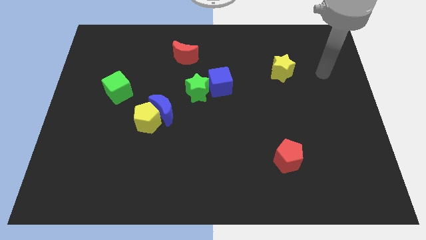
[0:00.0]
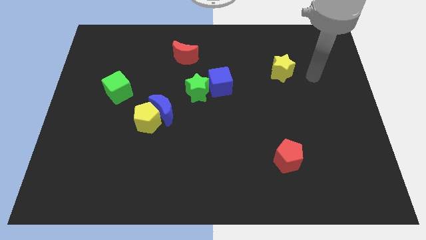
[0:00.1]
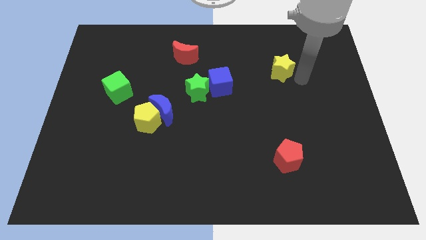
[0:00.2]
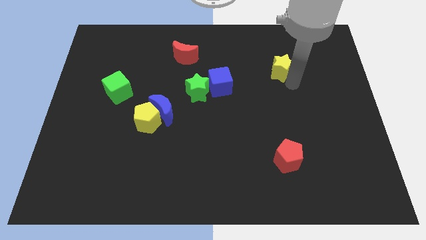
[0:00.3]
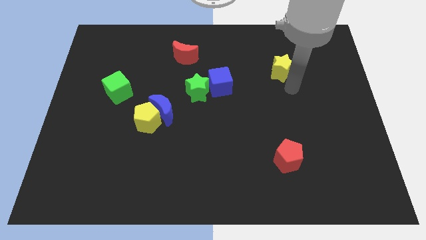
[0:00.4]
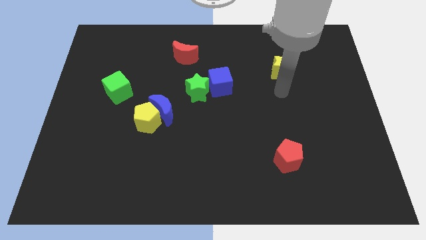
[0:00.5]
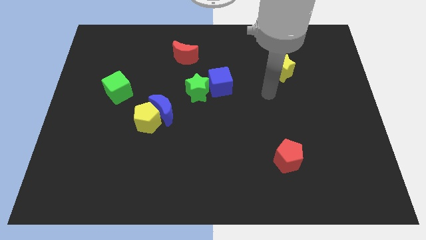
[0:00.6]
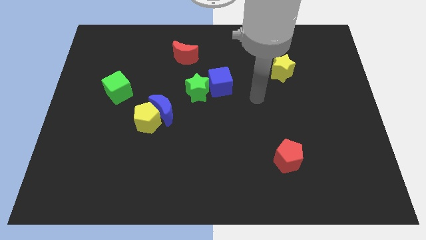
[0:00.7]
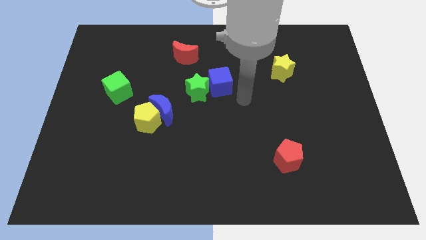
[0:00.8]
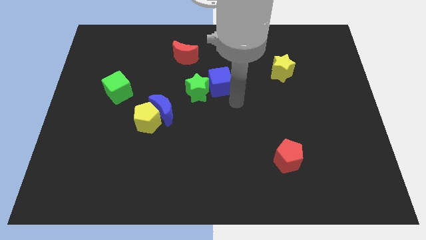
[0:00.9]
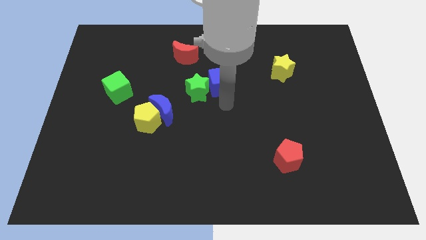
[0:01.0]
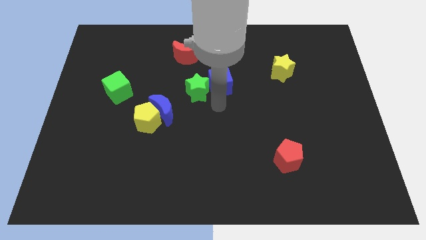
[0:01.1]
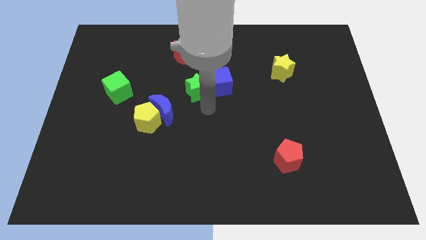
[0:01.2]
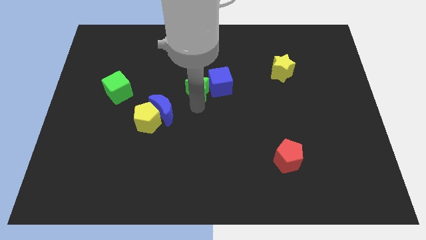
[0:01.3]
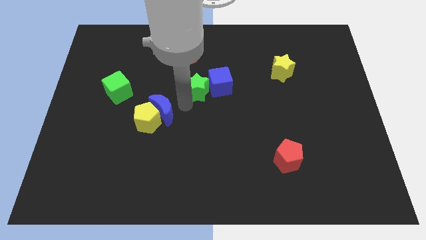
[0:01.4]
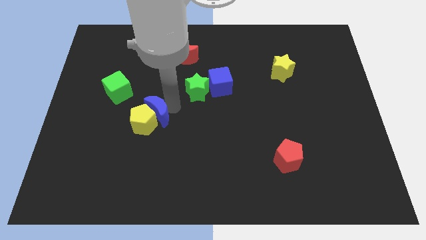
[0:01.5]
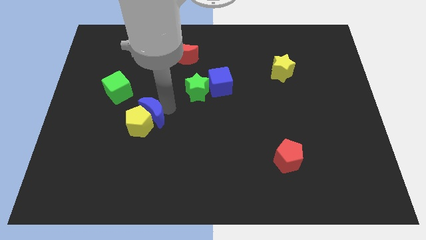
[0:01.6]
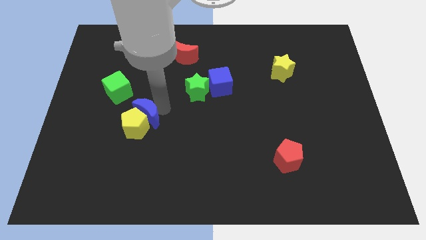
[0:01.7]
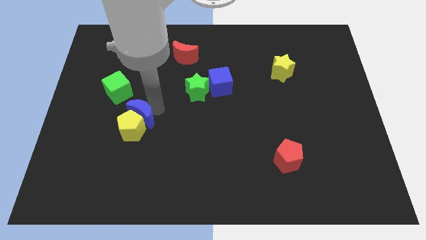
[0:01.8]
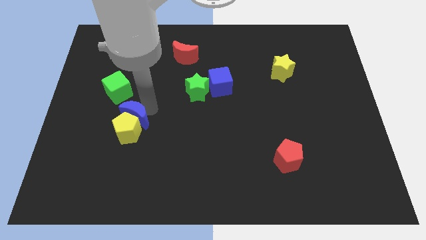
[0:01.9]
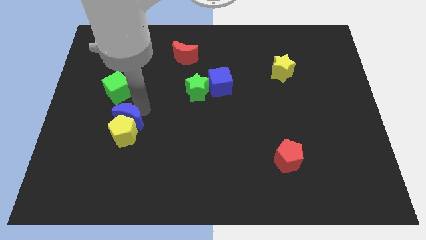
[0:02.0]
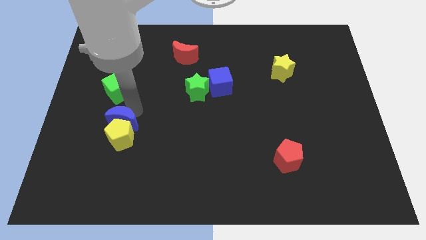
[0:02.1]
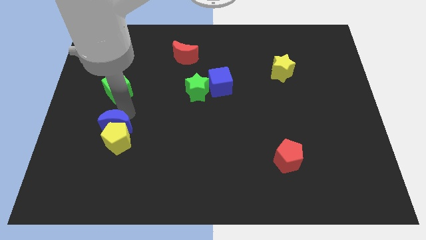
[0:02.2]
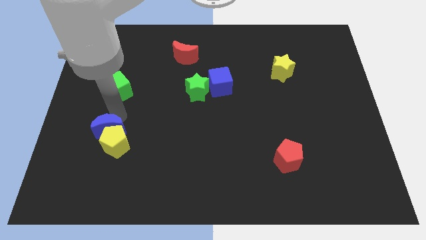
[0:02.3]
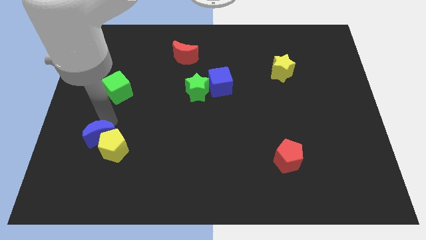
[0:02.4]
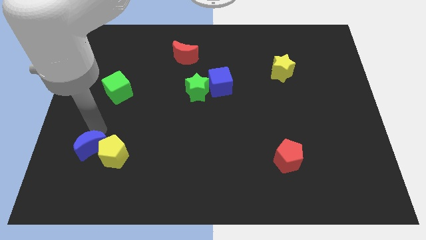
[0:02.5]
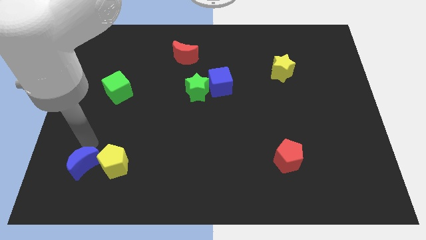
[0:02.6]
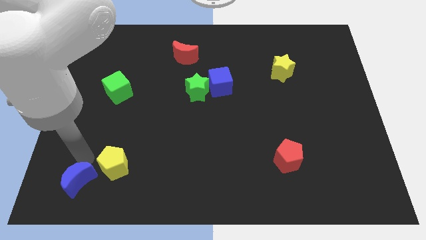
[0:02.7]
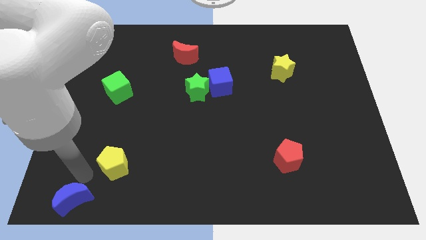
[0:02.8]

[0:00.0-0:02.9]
pull the yellow pentagon apart from the blue moon

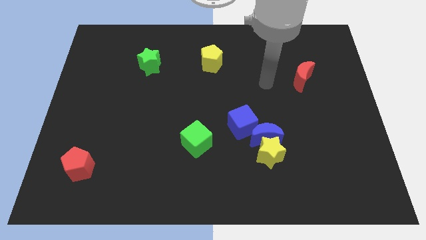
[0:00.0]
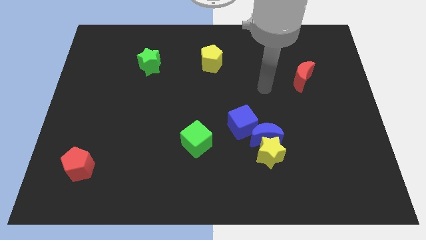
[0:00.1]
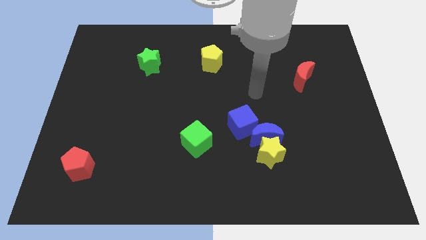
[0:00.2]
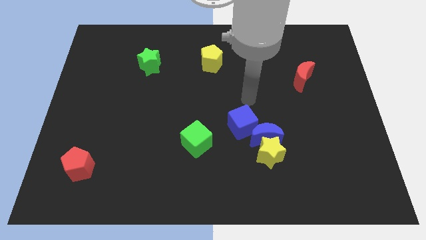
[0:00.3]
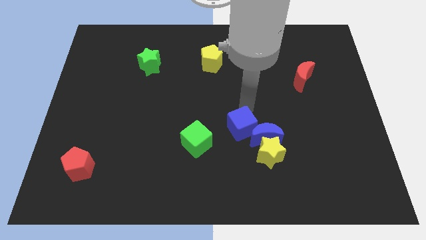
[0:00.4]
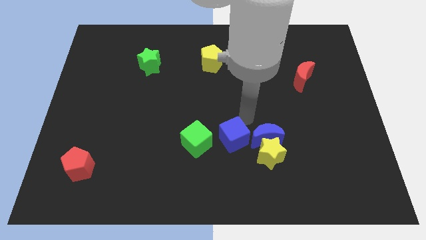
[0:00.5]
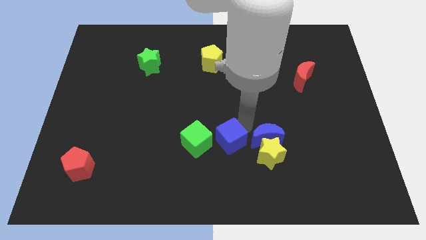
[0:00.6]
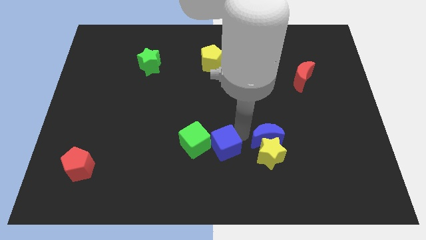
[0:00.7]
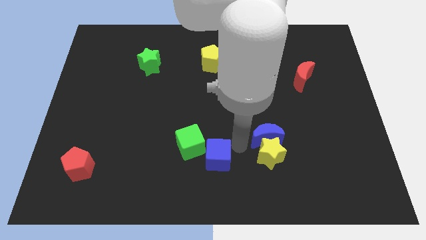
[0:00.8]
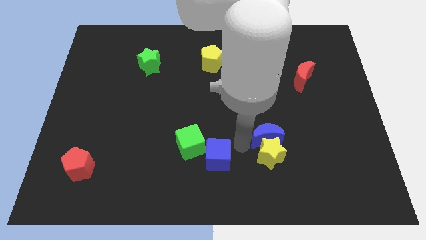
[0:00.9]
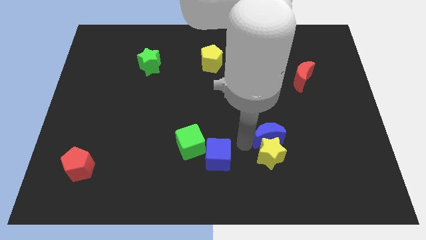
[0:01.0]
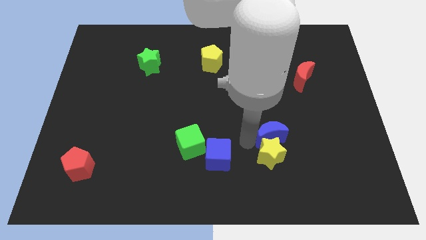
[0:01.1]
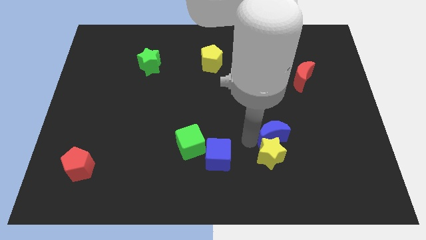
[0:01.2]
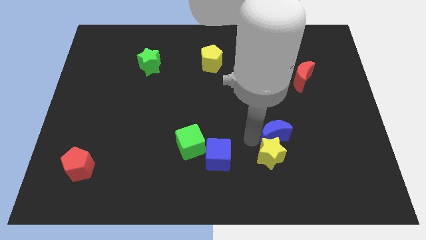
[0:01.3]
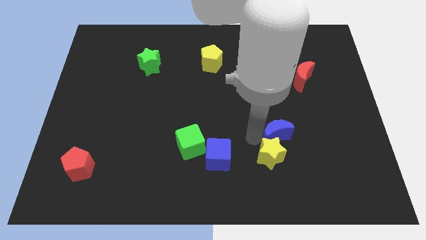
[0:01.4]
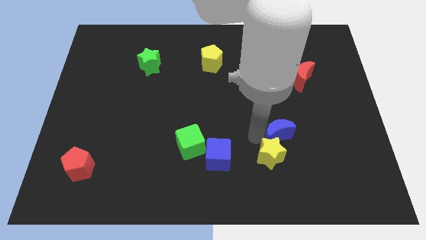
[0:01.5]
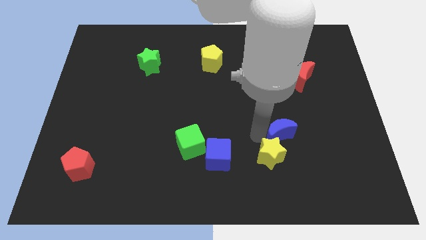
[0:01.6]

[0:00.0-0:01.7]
pull the blue moon apart from the yellow star and blue cube

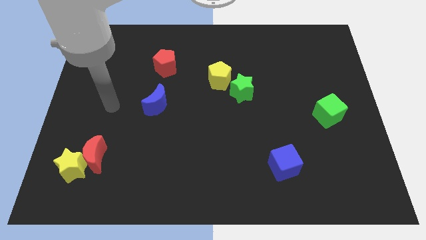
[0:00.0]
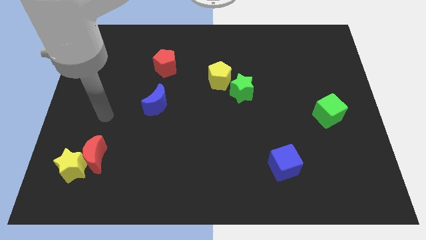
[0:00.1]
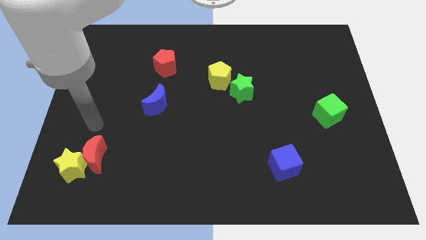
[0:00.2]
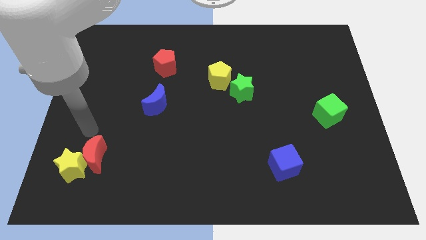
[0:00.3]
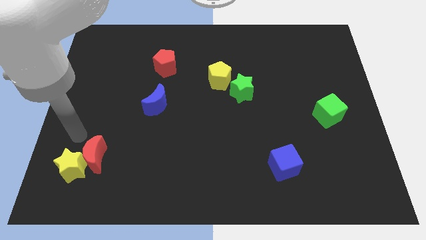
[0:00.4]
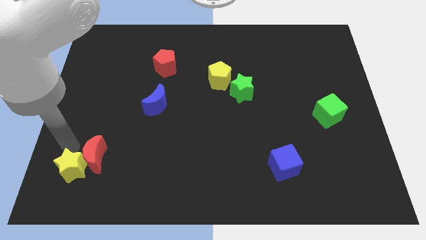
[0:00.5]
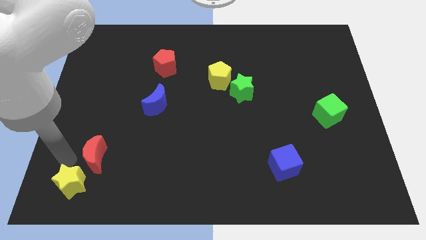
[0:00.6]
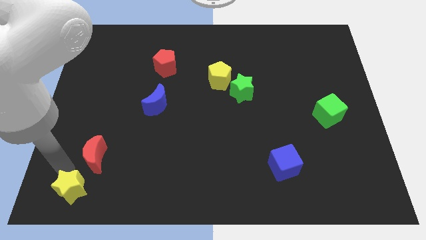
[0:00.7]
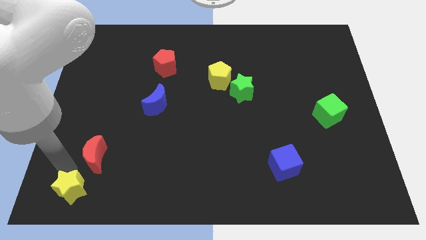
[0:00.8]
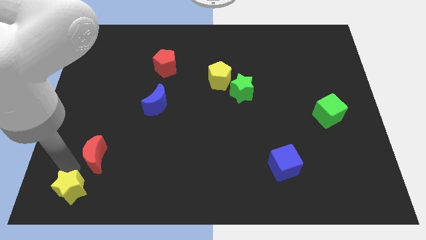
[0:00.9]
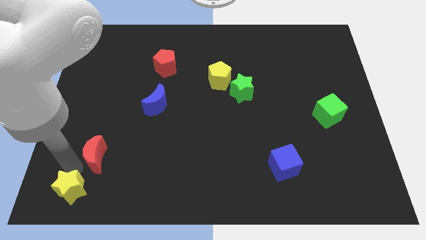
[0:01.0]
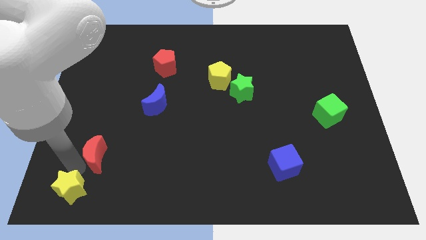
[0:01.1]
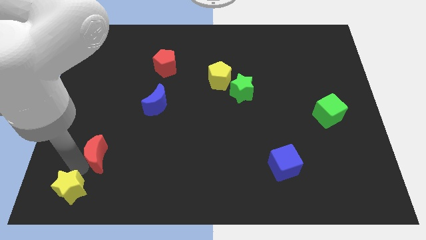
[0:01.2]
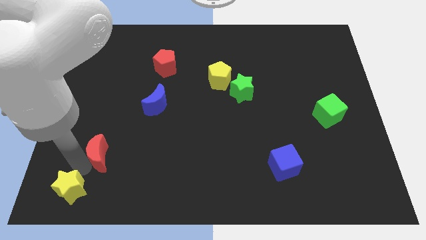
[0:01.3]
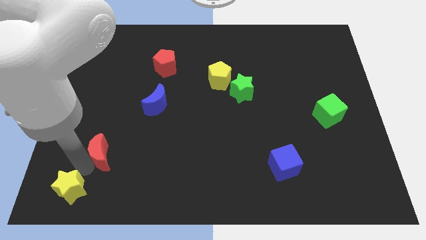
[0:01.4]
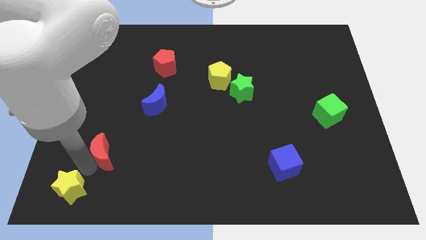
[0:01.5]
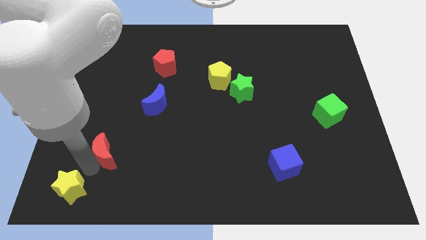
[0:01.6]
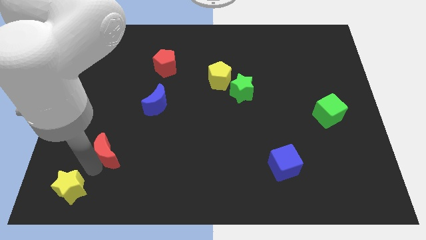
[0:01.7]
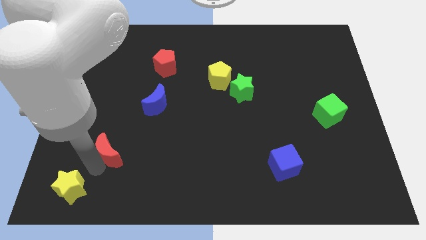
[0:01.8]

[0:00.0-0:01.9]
separate the red moon from the yellow star

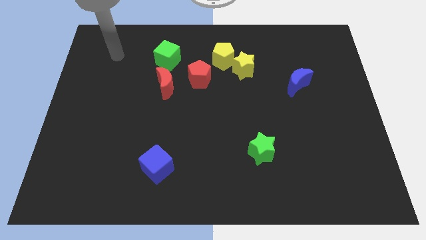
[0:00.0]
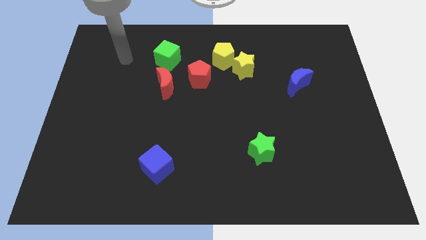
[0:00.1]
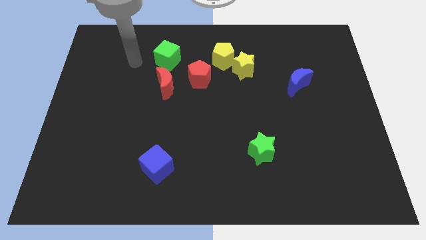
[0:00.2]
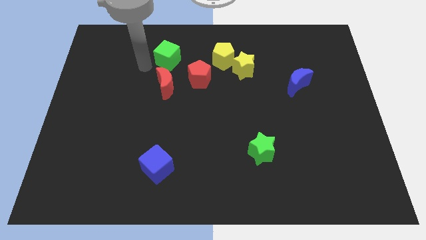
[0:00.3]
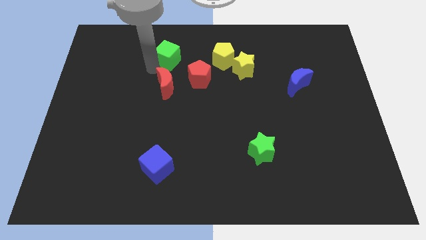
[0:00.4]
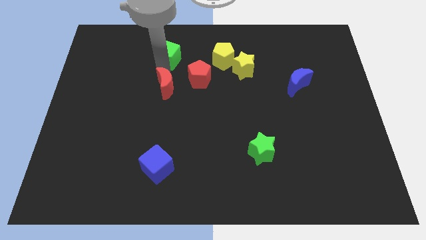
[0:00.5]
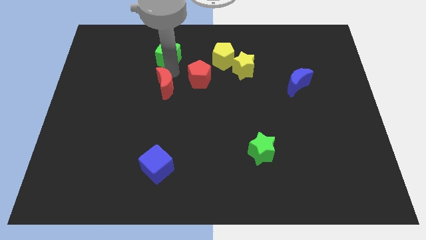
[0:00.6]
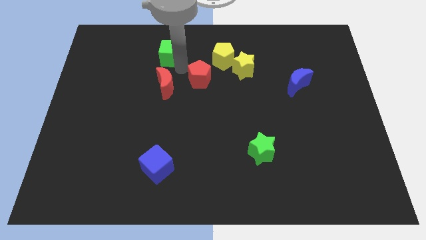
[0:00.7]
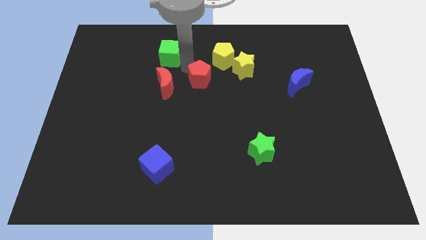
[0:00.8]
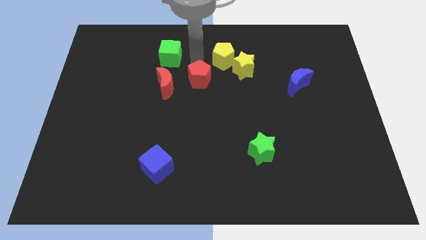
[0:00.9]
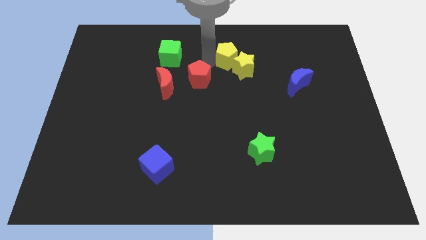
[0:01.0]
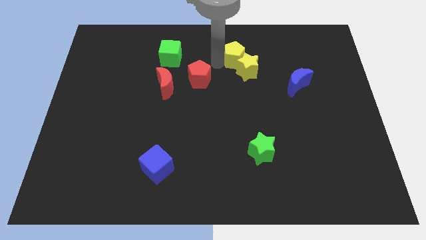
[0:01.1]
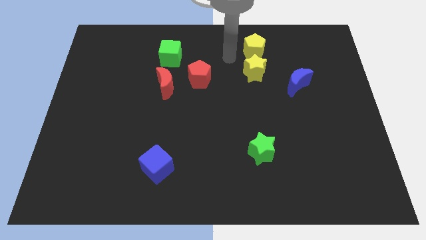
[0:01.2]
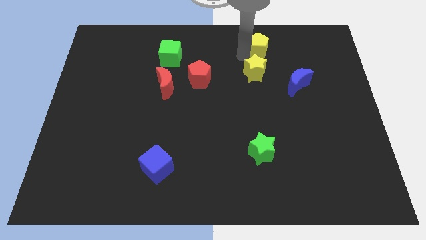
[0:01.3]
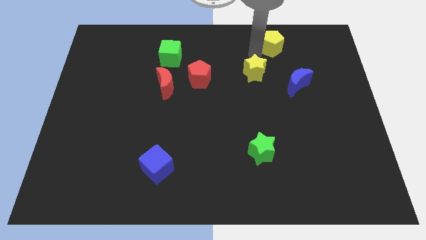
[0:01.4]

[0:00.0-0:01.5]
move the yellow star away from the yellow pentagon

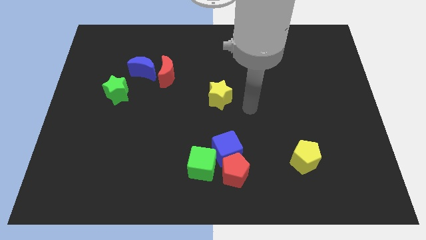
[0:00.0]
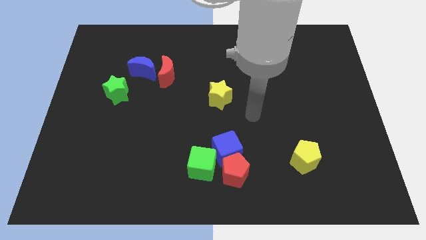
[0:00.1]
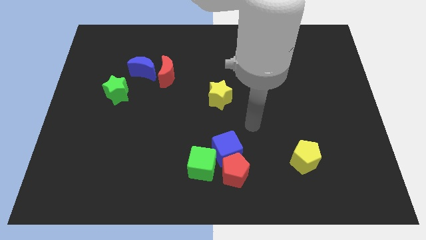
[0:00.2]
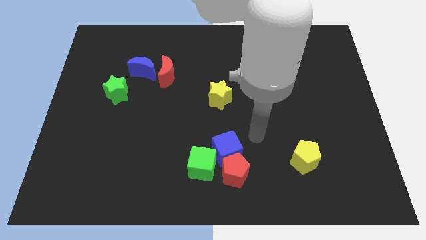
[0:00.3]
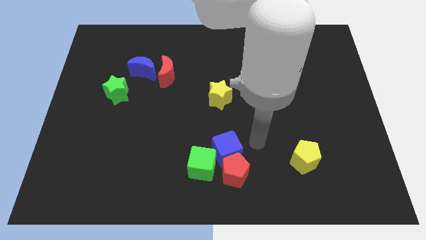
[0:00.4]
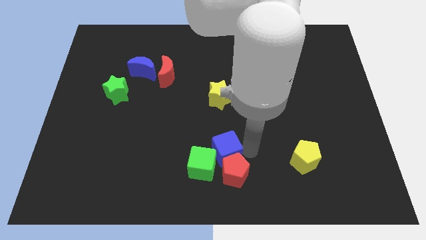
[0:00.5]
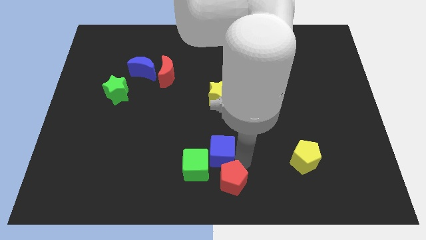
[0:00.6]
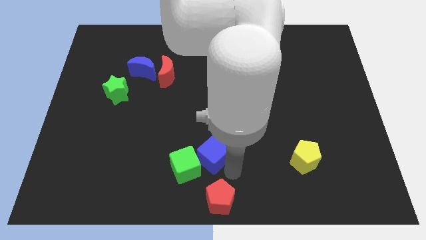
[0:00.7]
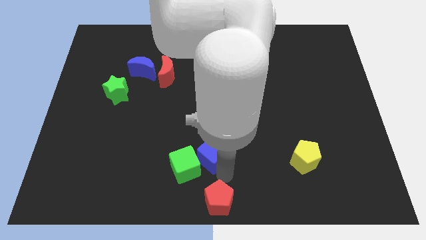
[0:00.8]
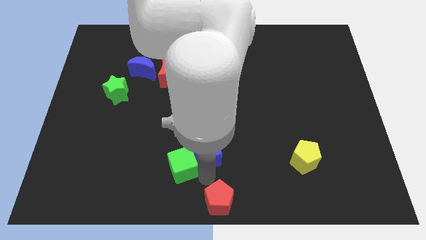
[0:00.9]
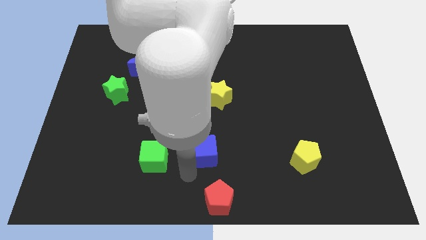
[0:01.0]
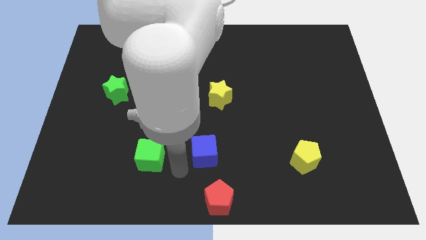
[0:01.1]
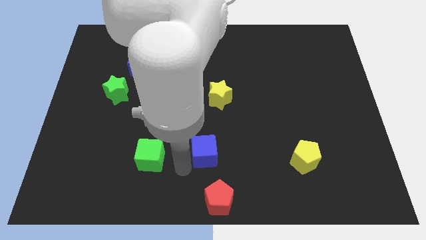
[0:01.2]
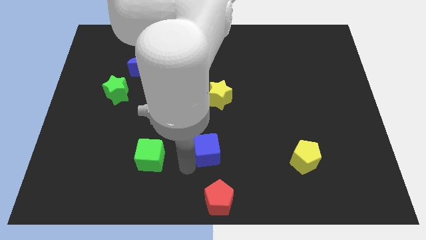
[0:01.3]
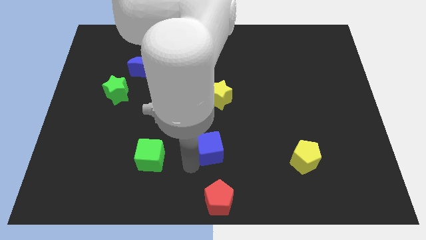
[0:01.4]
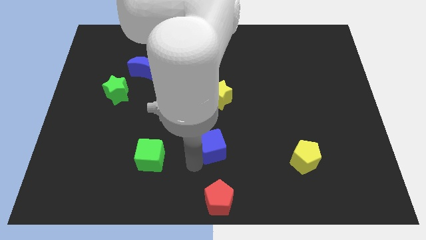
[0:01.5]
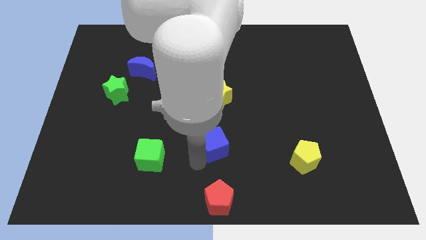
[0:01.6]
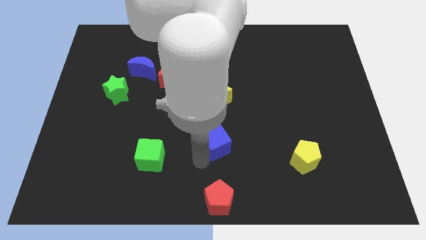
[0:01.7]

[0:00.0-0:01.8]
separate the blue cube from the red pentagon and green cube
